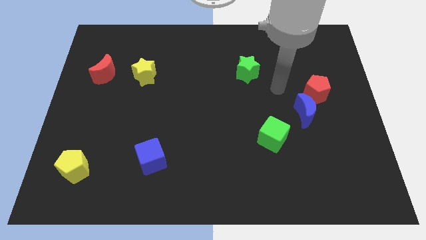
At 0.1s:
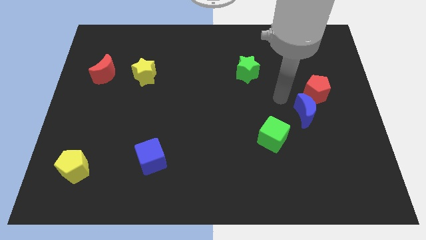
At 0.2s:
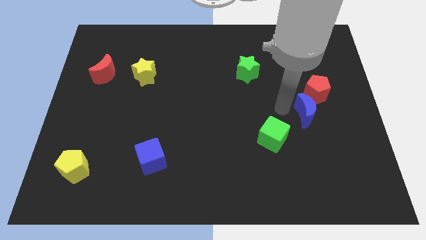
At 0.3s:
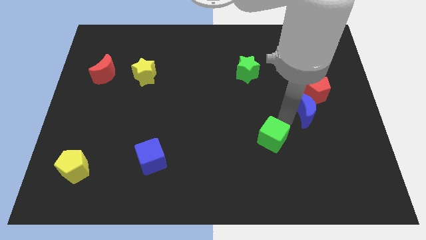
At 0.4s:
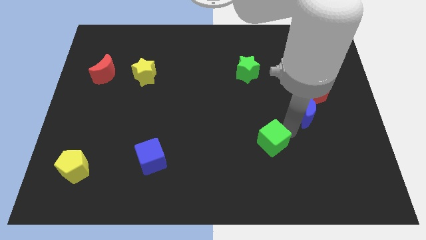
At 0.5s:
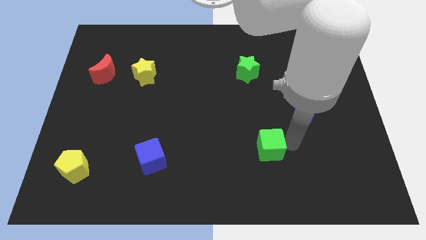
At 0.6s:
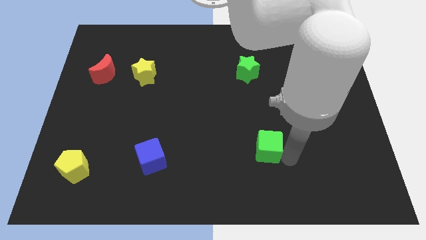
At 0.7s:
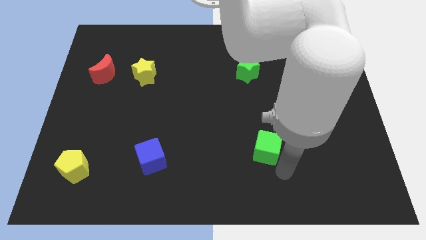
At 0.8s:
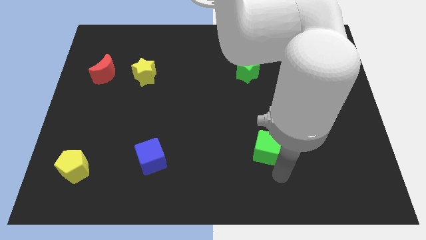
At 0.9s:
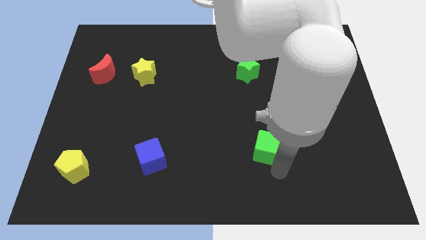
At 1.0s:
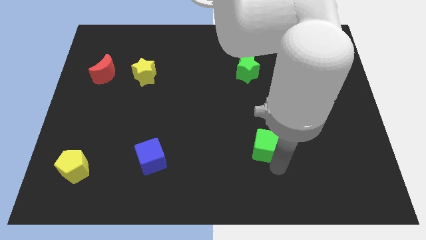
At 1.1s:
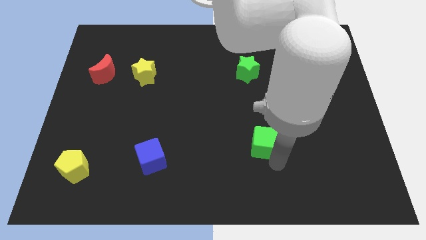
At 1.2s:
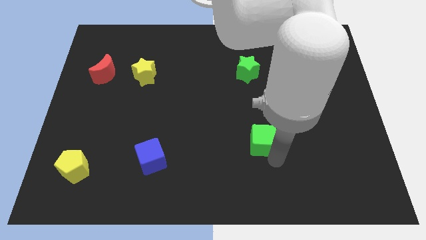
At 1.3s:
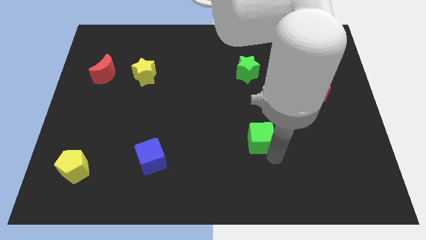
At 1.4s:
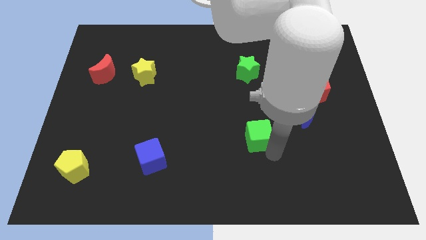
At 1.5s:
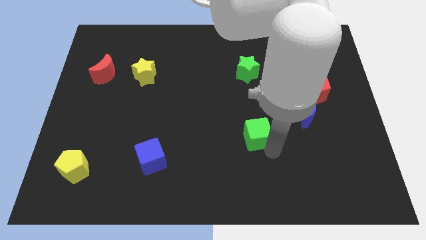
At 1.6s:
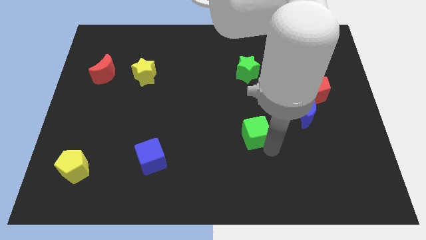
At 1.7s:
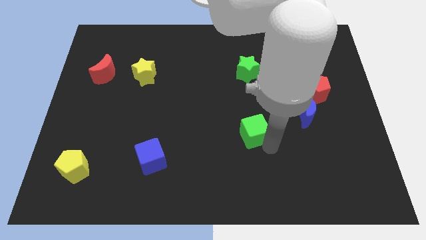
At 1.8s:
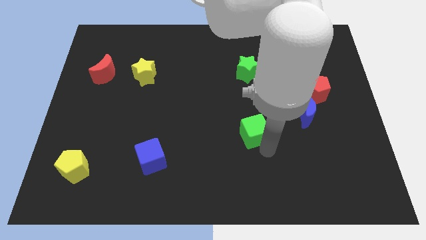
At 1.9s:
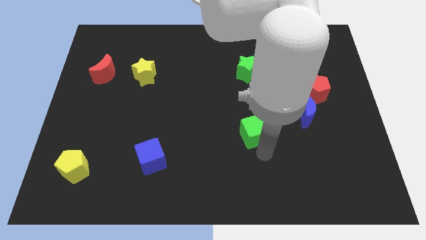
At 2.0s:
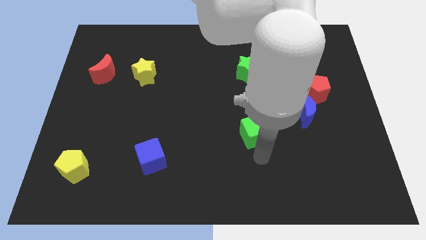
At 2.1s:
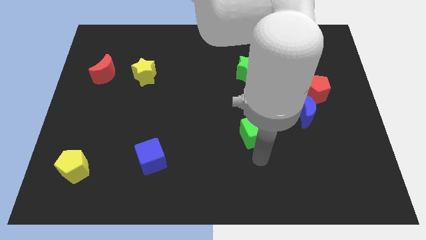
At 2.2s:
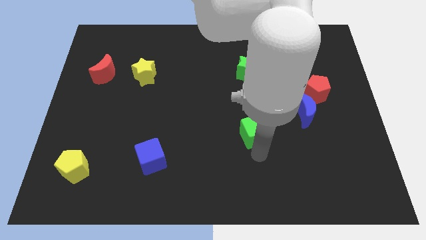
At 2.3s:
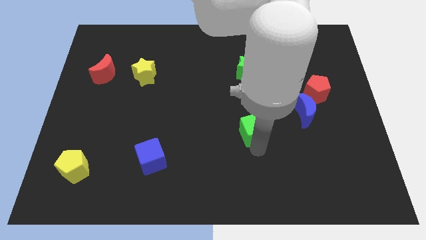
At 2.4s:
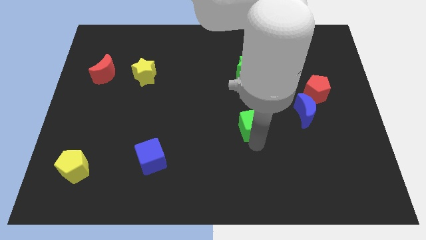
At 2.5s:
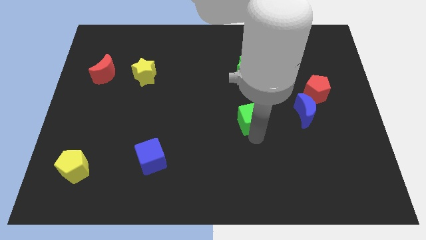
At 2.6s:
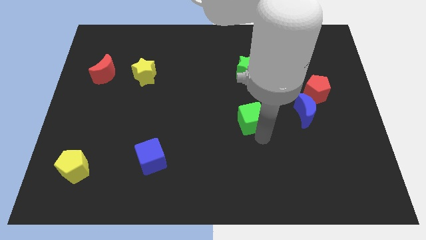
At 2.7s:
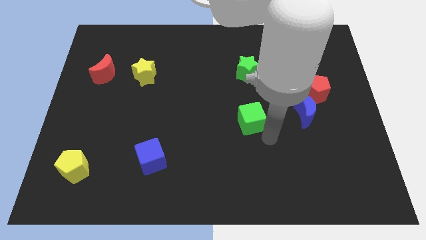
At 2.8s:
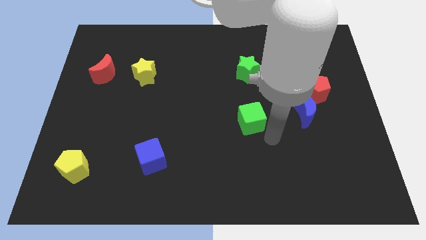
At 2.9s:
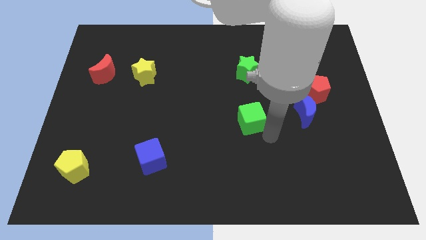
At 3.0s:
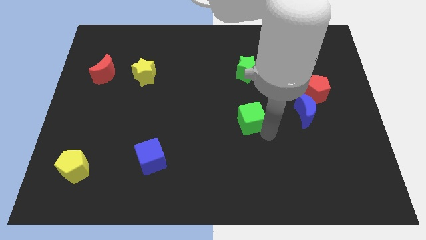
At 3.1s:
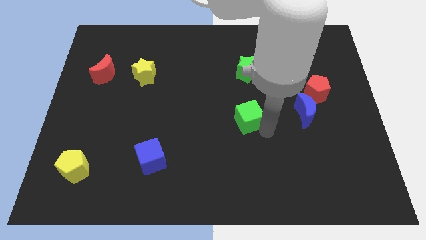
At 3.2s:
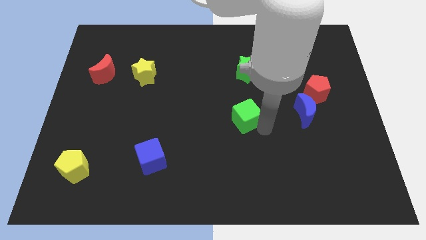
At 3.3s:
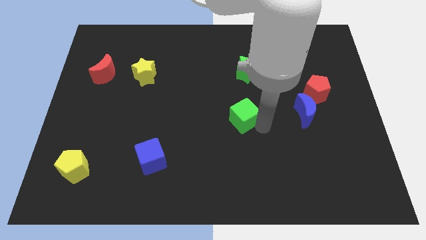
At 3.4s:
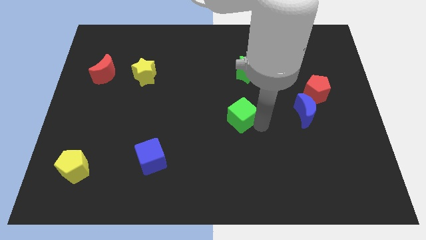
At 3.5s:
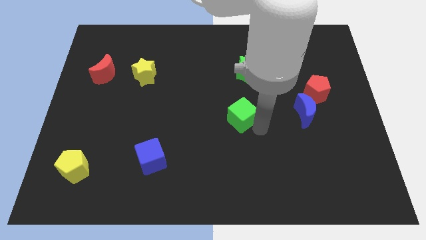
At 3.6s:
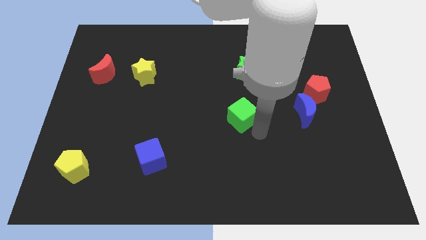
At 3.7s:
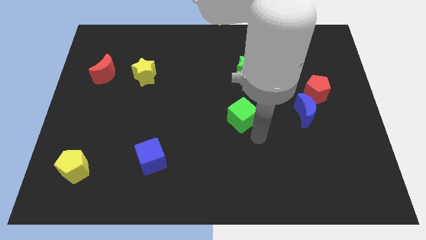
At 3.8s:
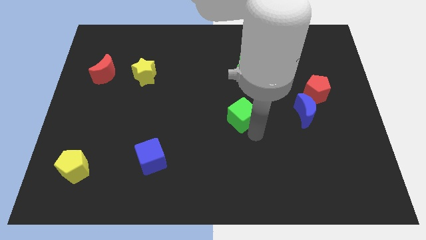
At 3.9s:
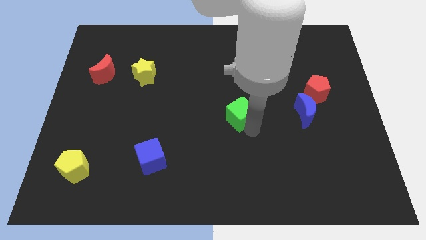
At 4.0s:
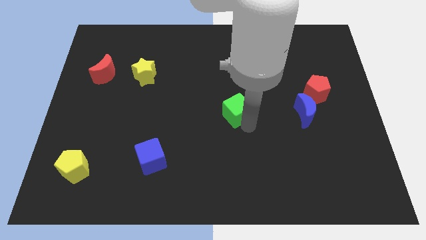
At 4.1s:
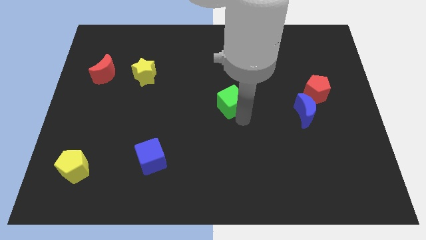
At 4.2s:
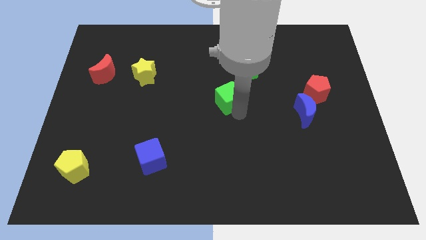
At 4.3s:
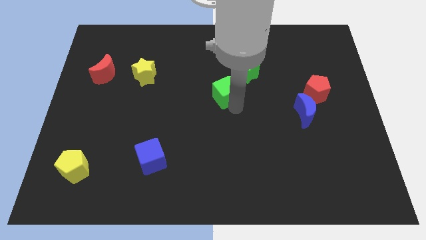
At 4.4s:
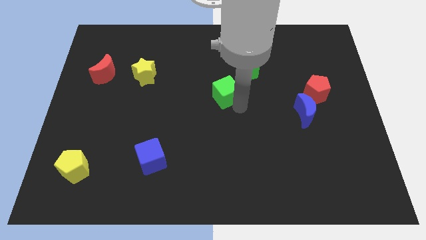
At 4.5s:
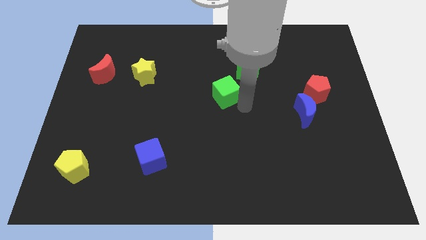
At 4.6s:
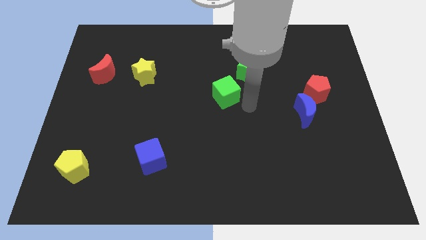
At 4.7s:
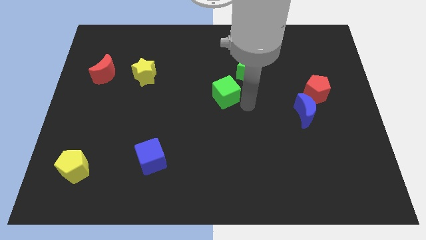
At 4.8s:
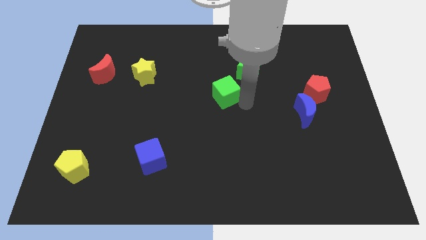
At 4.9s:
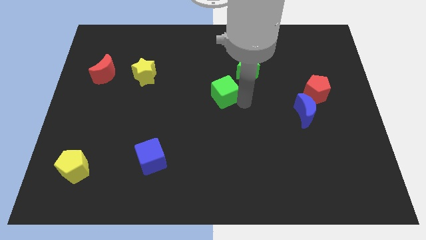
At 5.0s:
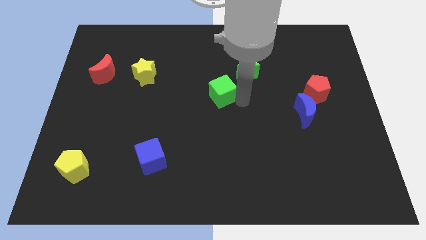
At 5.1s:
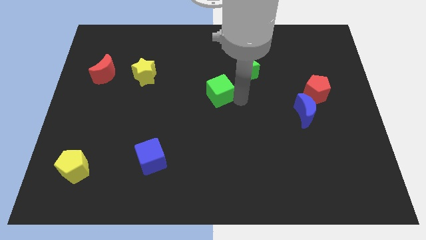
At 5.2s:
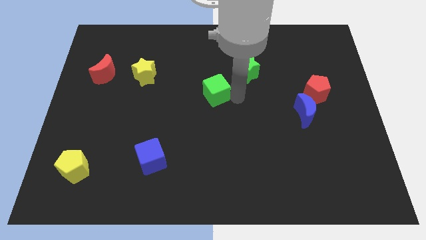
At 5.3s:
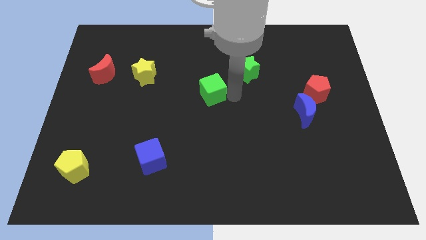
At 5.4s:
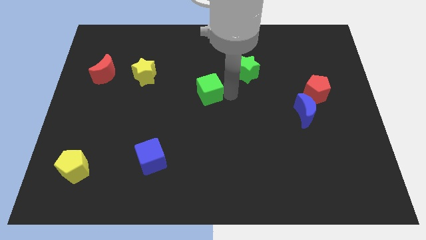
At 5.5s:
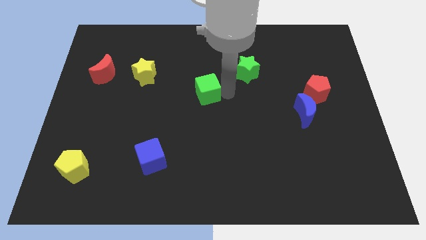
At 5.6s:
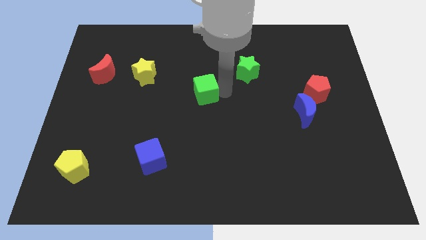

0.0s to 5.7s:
push the green cube upwards and to the left

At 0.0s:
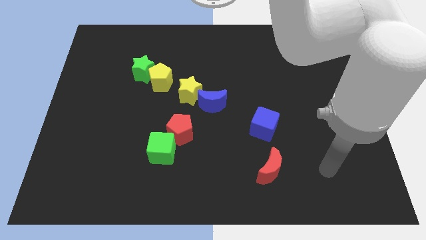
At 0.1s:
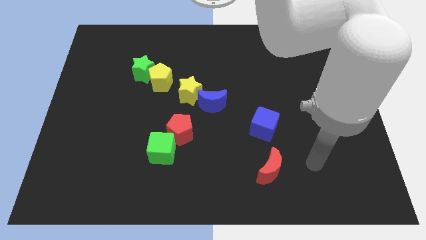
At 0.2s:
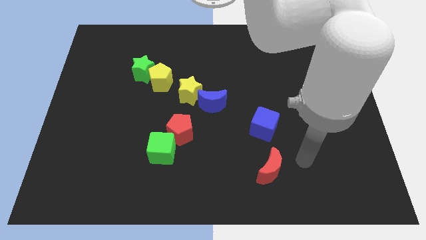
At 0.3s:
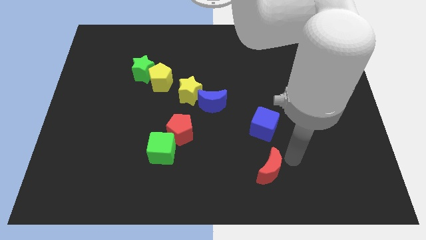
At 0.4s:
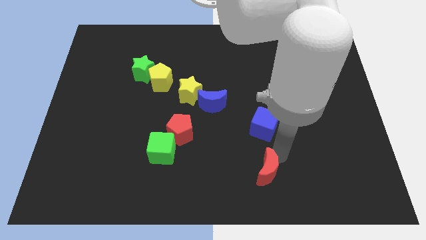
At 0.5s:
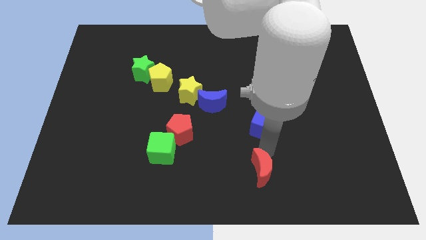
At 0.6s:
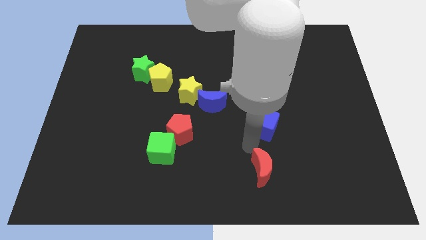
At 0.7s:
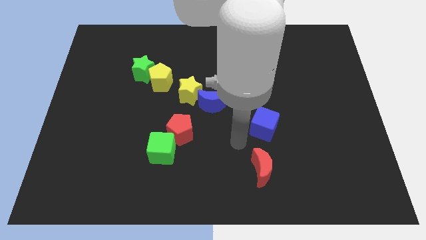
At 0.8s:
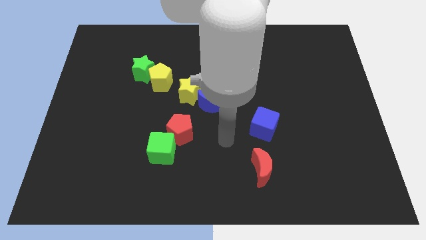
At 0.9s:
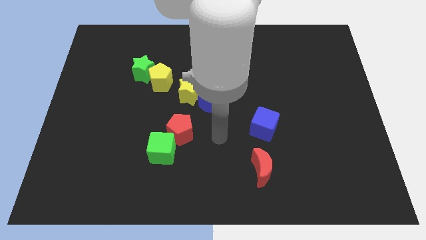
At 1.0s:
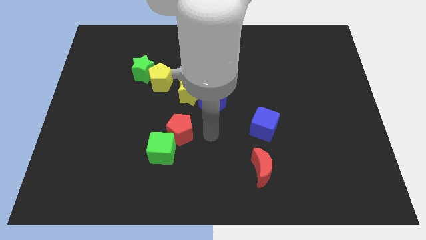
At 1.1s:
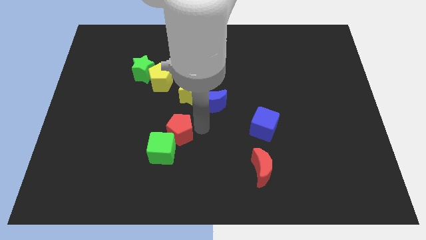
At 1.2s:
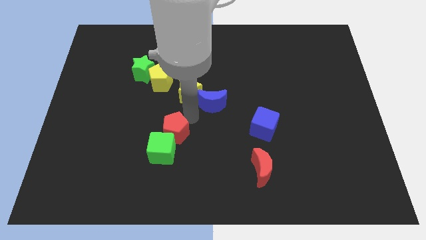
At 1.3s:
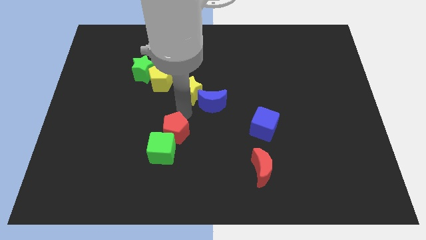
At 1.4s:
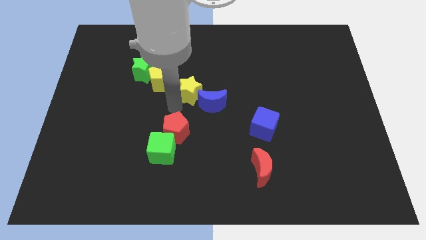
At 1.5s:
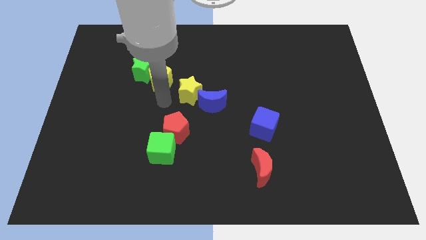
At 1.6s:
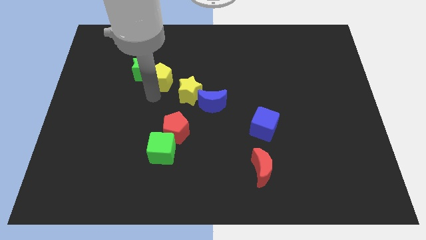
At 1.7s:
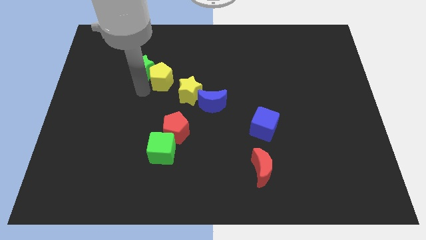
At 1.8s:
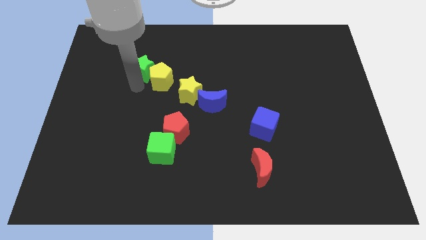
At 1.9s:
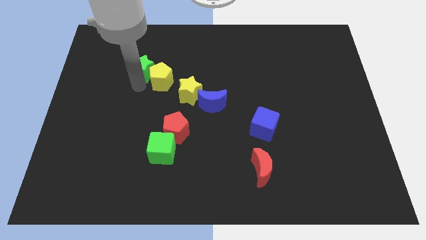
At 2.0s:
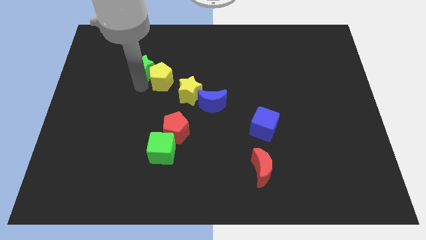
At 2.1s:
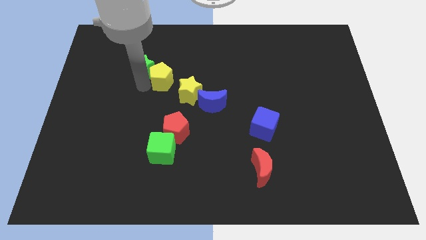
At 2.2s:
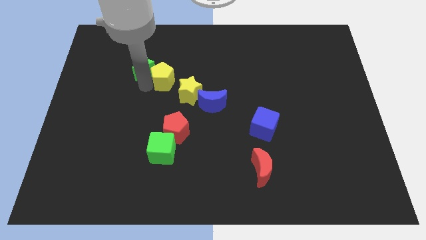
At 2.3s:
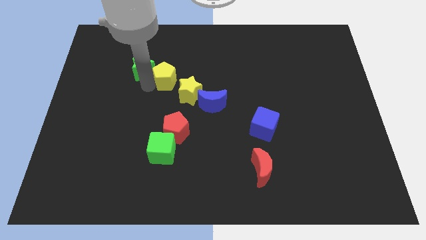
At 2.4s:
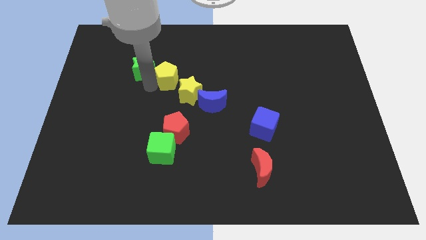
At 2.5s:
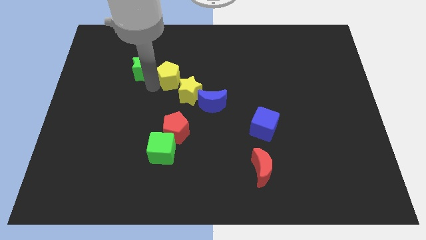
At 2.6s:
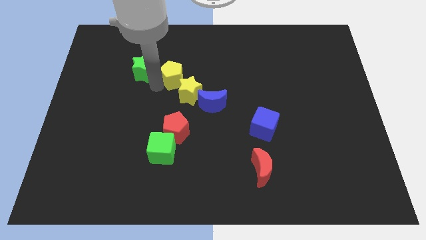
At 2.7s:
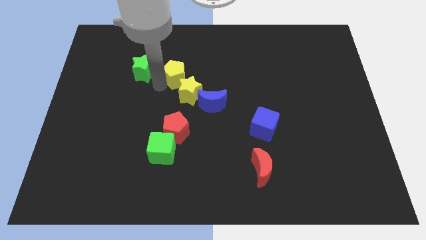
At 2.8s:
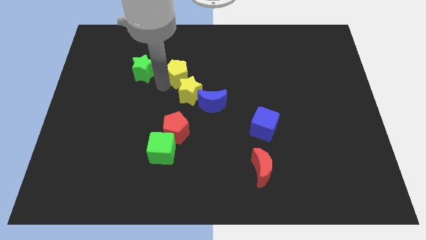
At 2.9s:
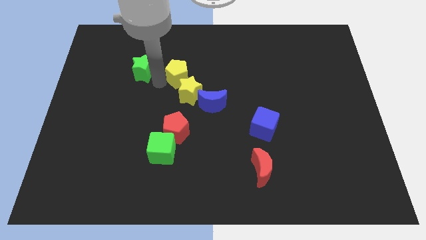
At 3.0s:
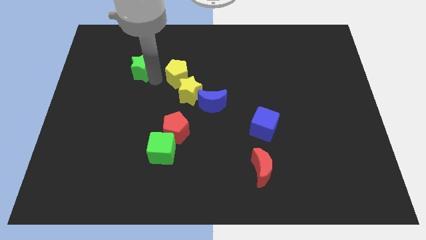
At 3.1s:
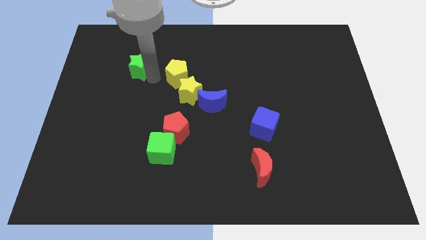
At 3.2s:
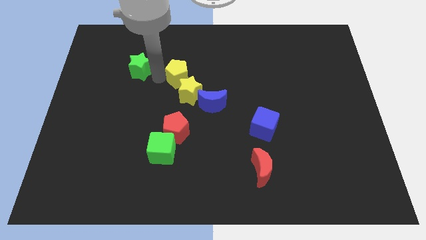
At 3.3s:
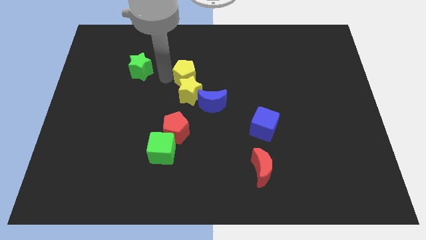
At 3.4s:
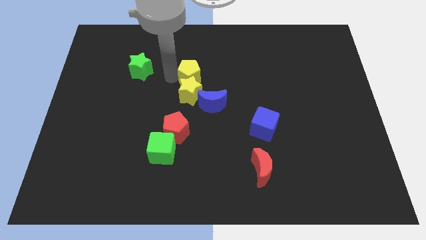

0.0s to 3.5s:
push the yellow pentagon to the right a little
